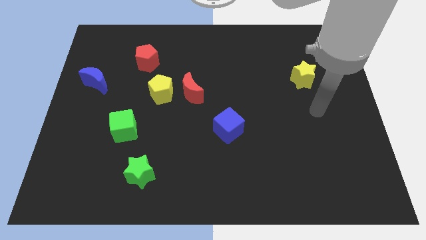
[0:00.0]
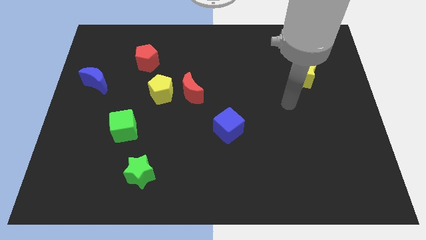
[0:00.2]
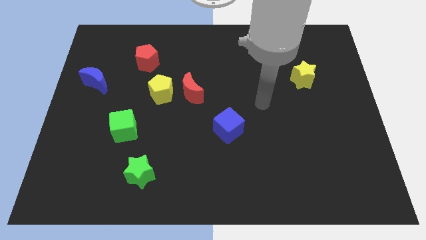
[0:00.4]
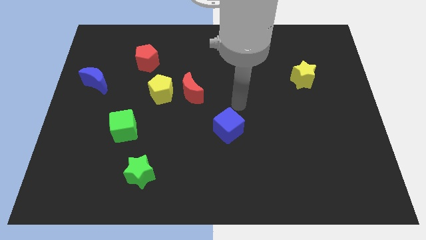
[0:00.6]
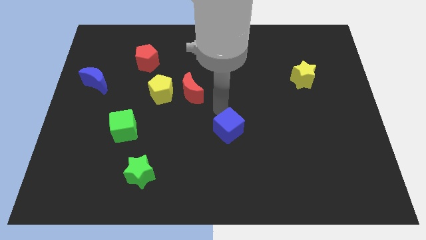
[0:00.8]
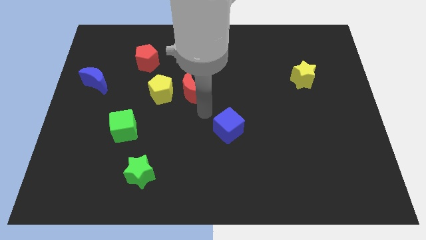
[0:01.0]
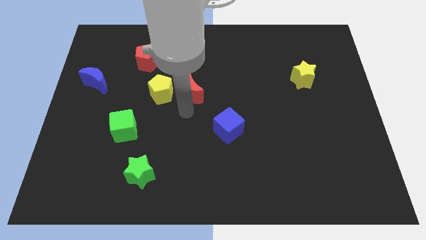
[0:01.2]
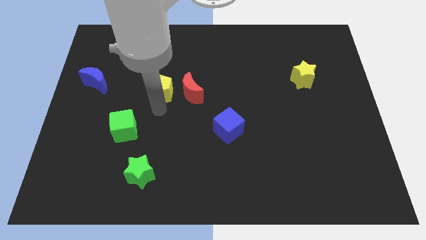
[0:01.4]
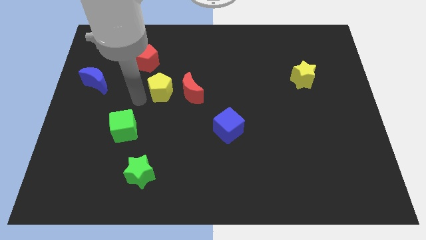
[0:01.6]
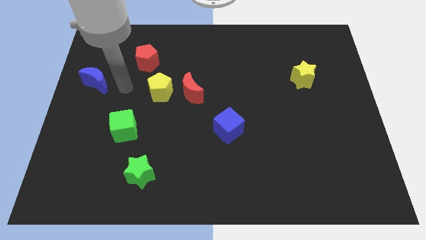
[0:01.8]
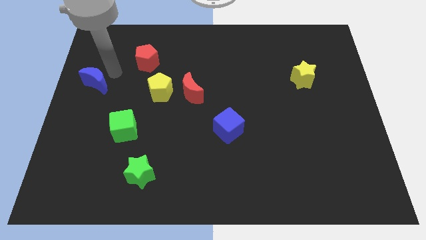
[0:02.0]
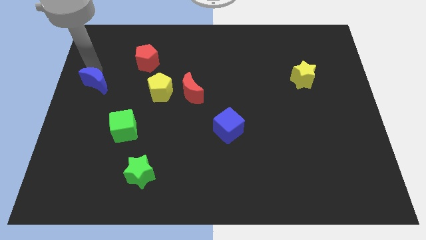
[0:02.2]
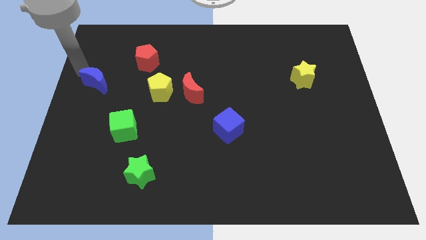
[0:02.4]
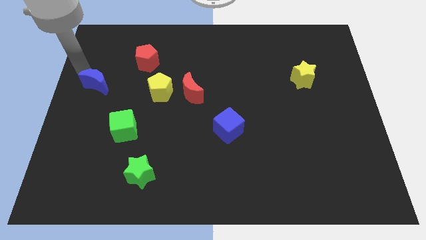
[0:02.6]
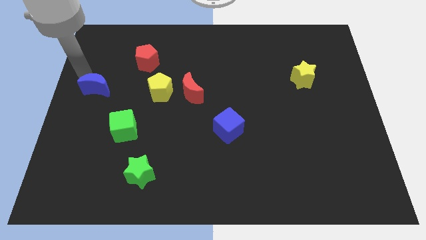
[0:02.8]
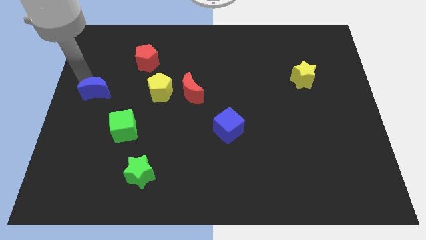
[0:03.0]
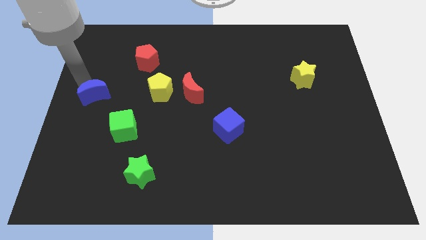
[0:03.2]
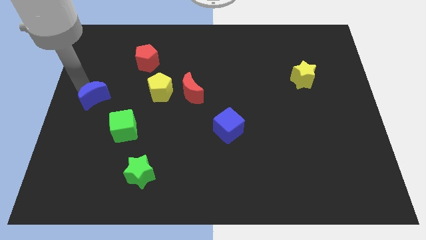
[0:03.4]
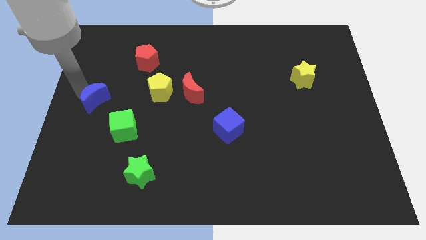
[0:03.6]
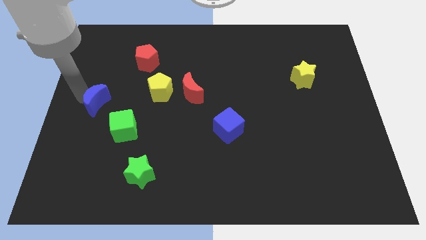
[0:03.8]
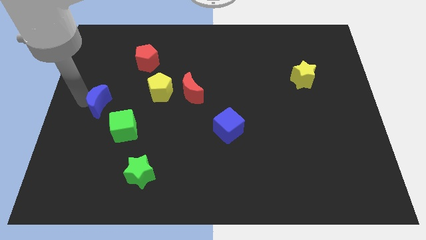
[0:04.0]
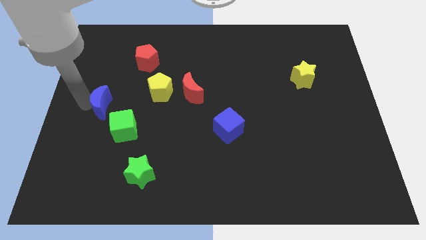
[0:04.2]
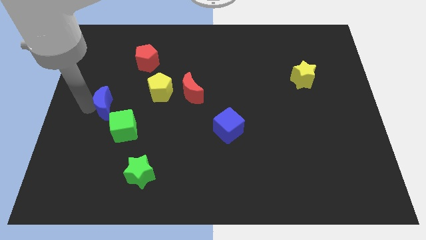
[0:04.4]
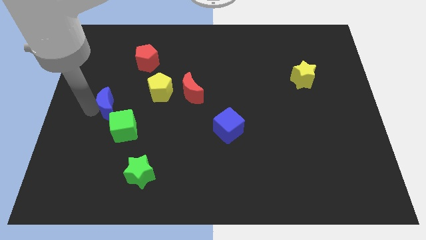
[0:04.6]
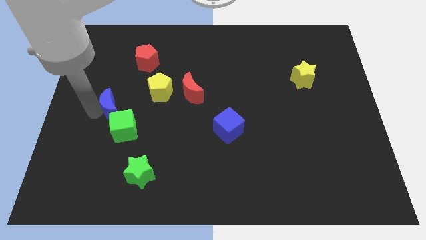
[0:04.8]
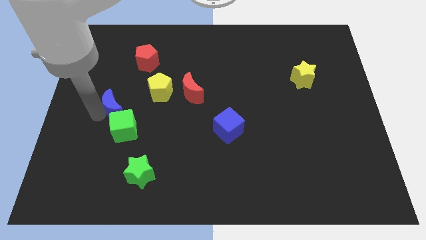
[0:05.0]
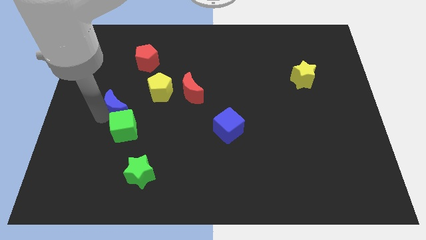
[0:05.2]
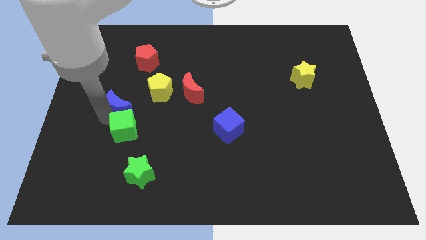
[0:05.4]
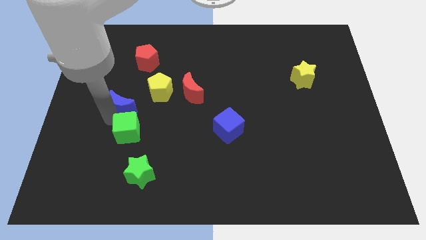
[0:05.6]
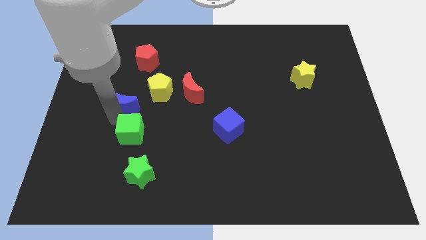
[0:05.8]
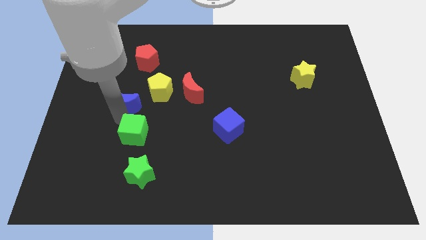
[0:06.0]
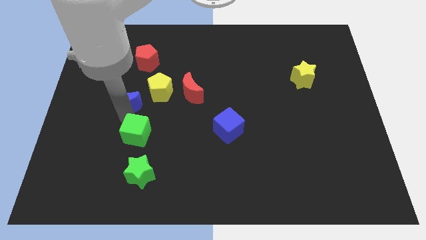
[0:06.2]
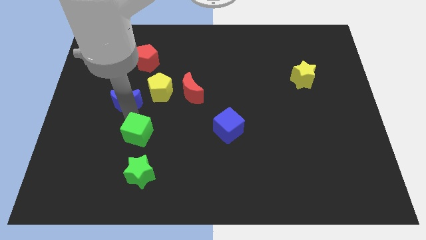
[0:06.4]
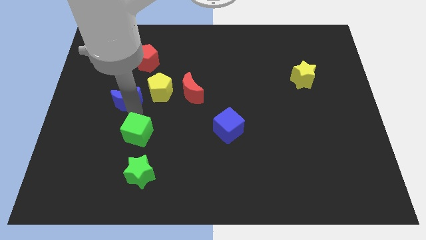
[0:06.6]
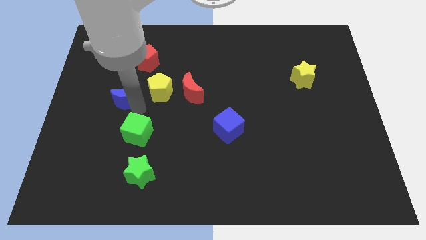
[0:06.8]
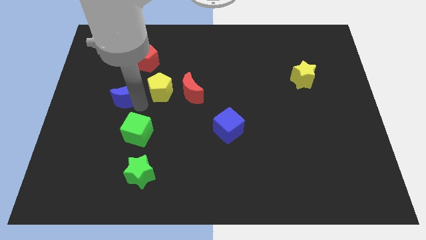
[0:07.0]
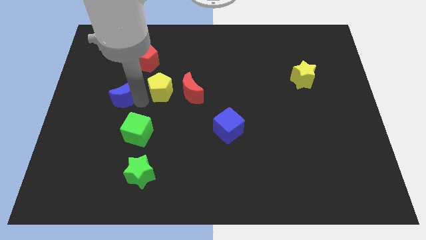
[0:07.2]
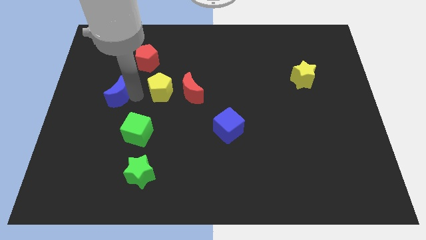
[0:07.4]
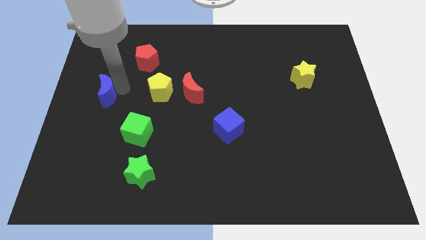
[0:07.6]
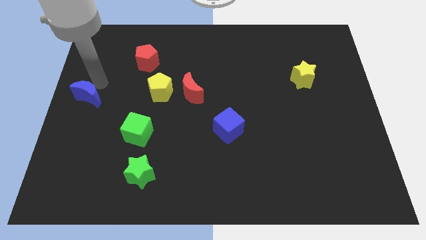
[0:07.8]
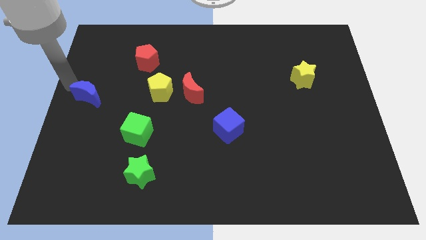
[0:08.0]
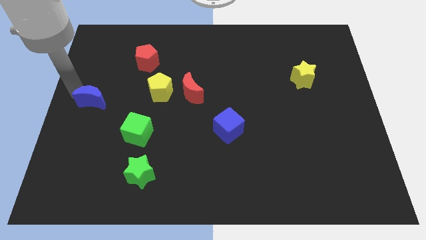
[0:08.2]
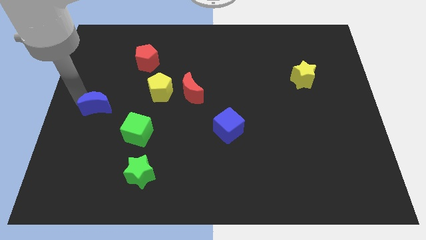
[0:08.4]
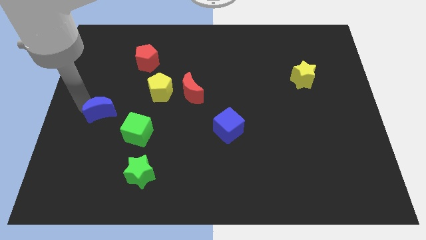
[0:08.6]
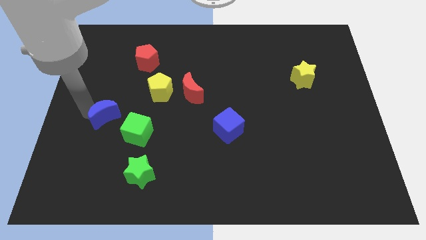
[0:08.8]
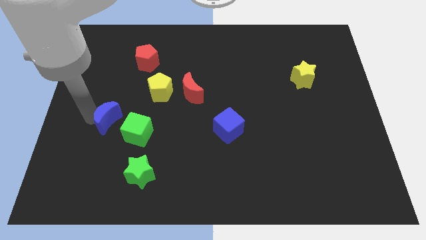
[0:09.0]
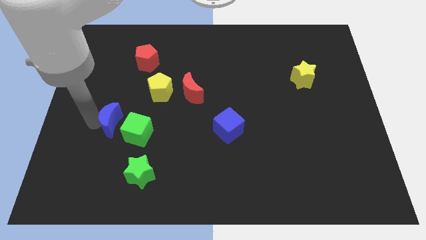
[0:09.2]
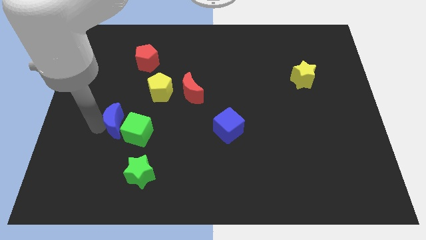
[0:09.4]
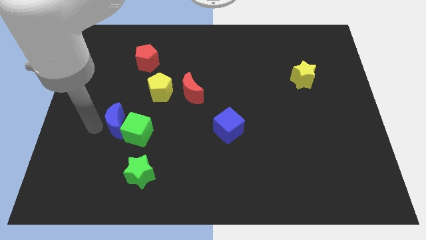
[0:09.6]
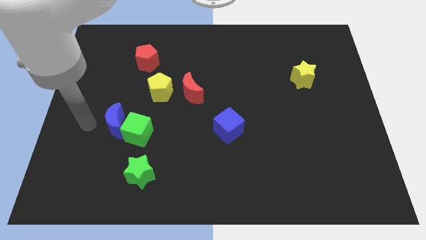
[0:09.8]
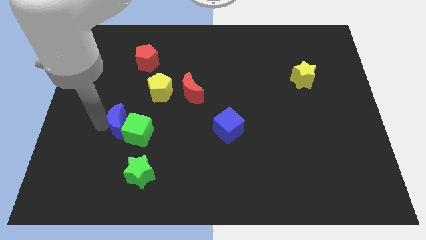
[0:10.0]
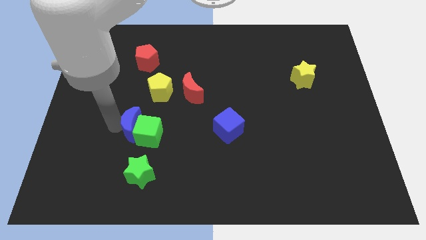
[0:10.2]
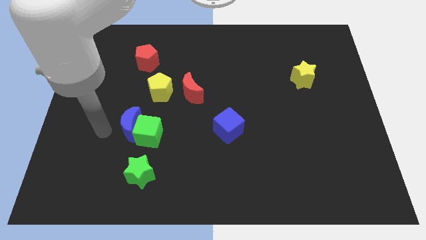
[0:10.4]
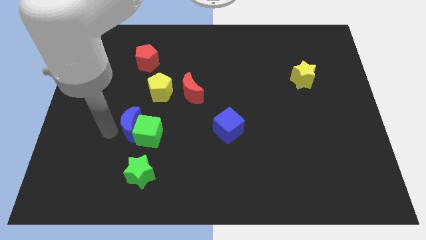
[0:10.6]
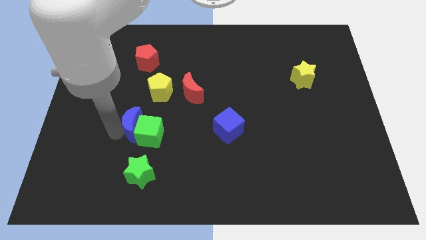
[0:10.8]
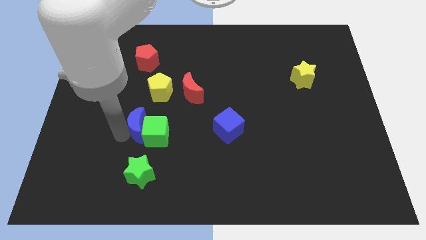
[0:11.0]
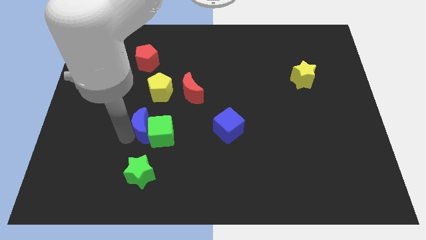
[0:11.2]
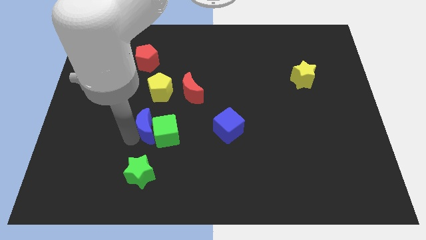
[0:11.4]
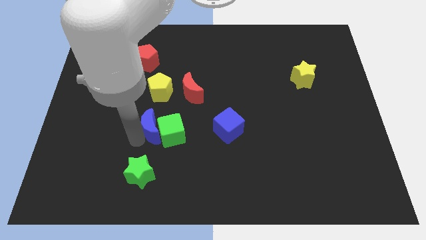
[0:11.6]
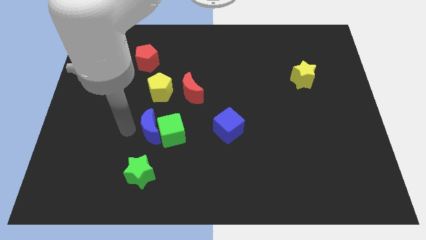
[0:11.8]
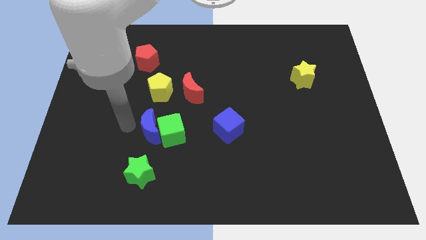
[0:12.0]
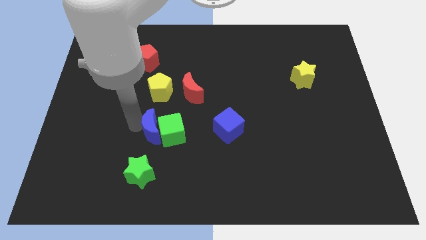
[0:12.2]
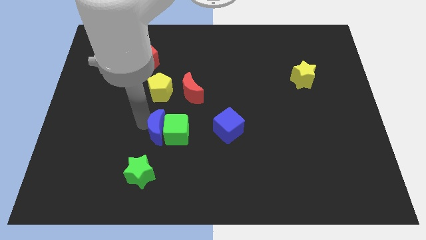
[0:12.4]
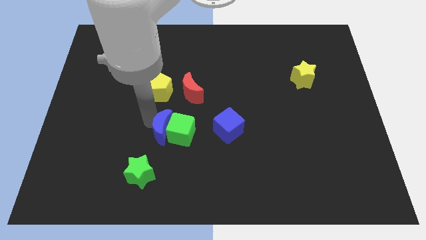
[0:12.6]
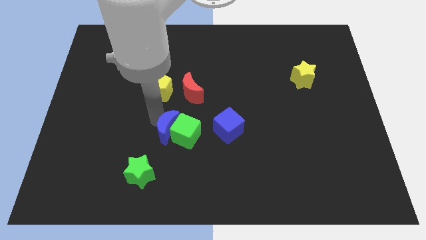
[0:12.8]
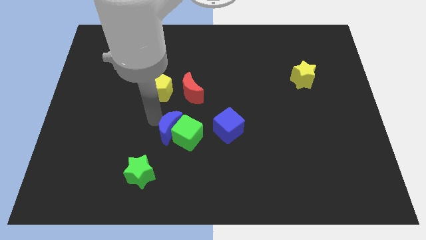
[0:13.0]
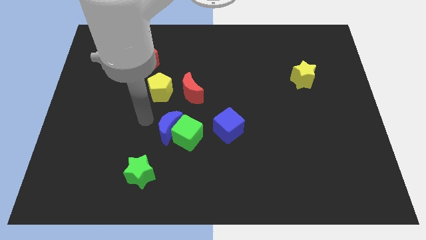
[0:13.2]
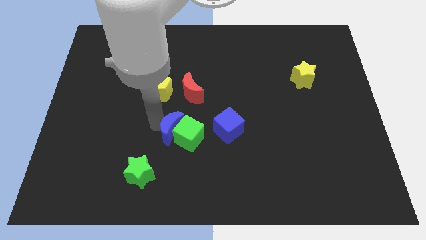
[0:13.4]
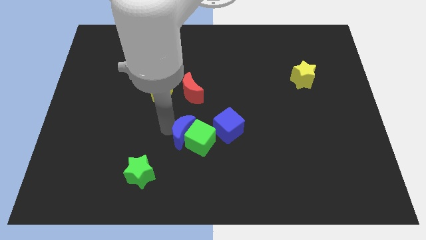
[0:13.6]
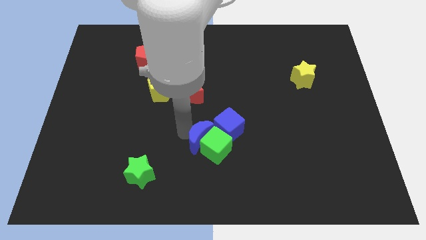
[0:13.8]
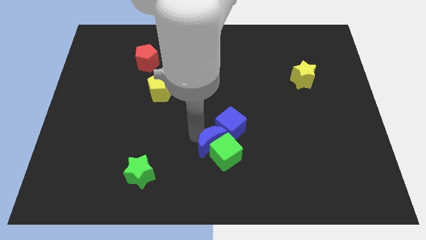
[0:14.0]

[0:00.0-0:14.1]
push the blue moon below the blue cube

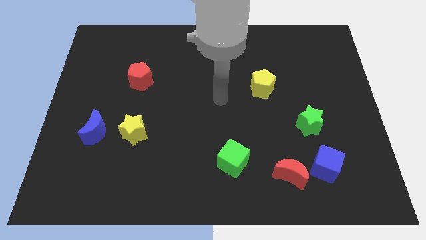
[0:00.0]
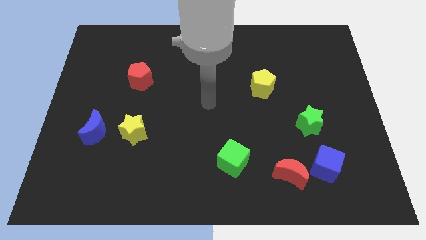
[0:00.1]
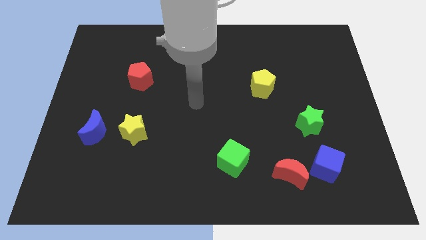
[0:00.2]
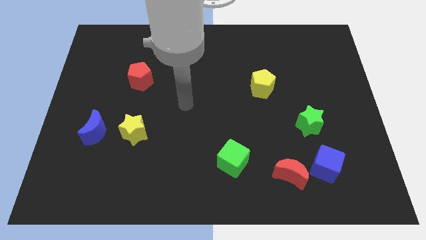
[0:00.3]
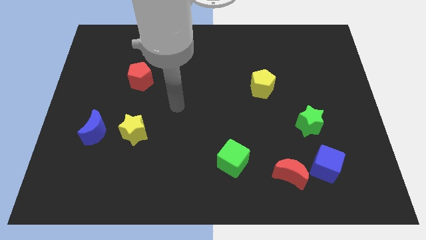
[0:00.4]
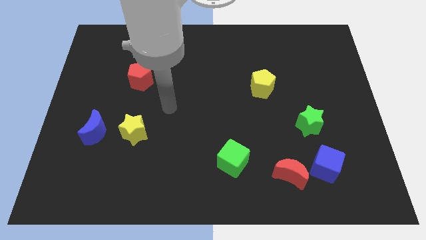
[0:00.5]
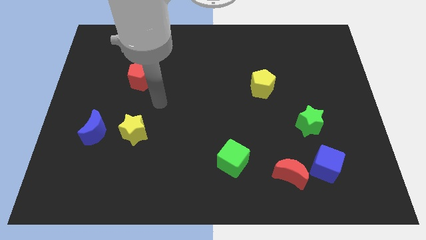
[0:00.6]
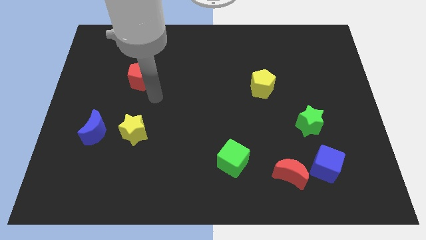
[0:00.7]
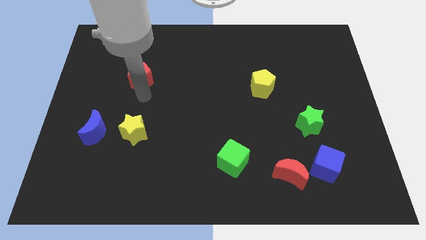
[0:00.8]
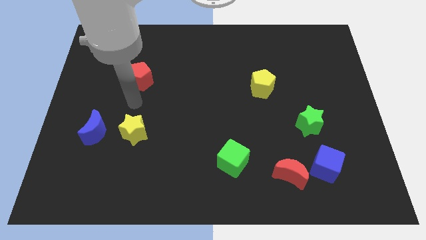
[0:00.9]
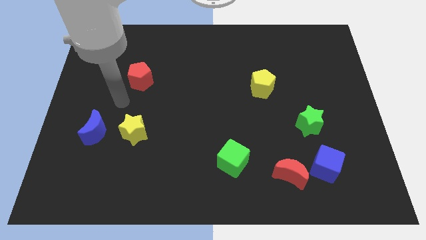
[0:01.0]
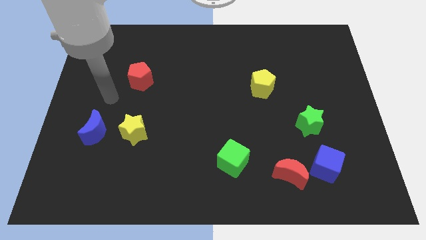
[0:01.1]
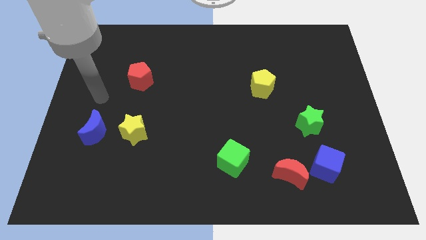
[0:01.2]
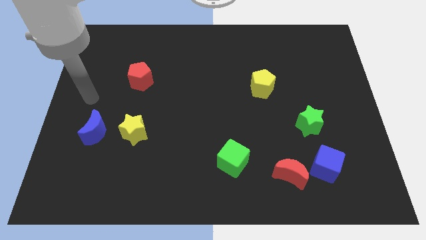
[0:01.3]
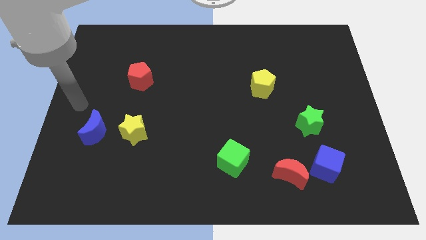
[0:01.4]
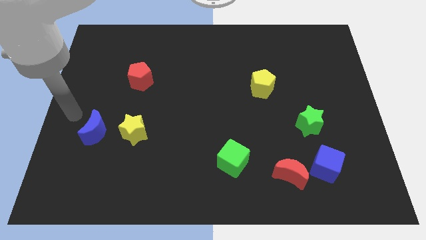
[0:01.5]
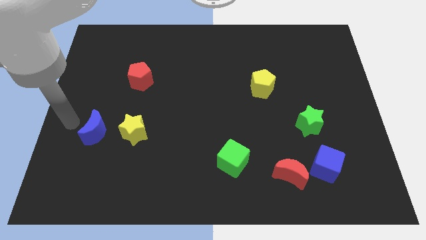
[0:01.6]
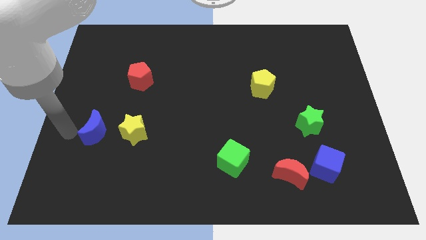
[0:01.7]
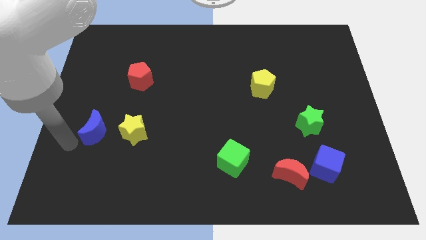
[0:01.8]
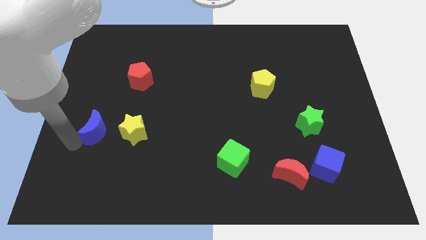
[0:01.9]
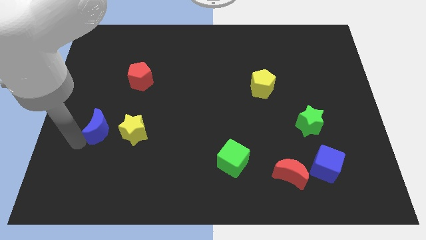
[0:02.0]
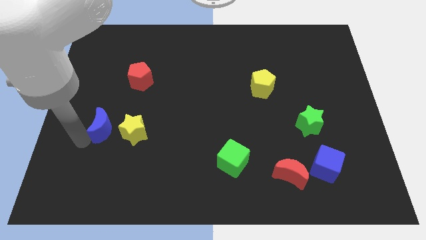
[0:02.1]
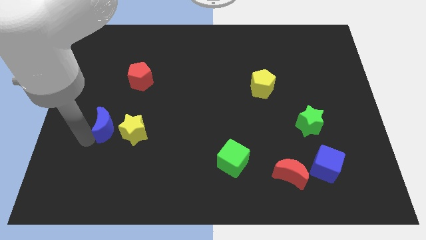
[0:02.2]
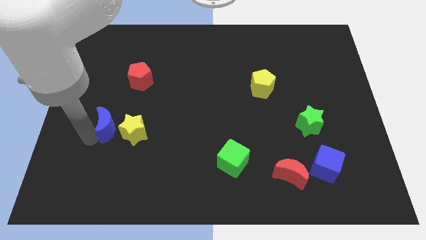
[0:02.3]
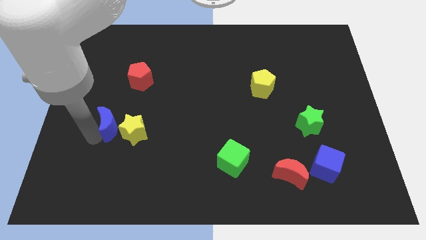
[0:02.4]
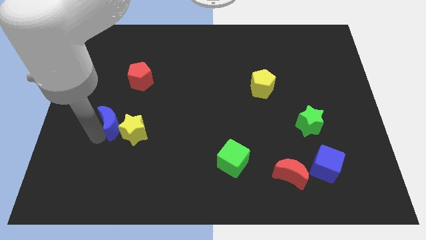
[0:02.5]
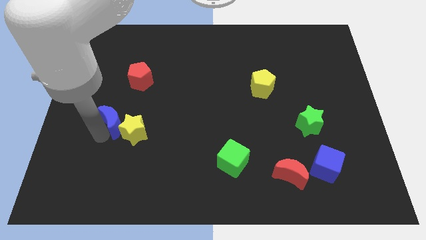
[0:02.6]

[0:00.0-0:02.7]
slide the blue moon below the red pentagon
